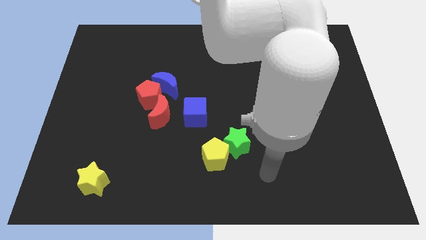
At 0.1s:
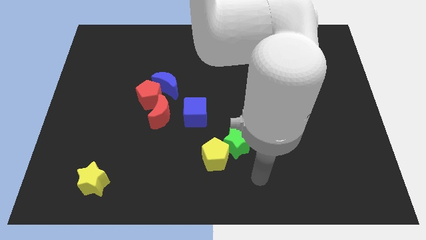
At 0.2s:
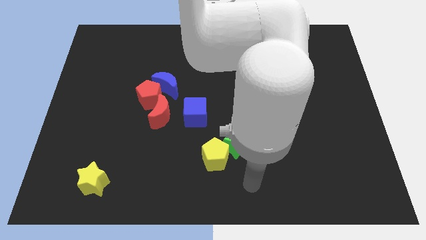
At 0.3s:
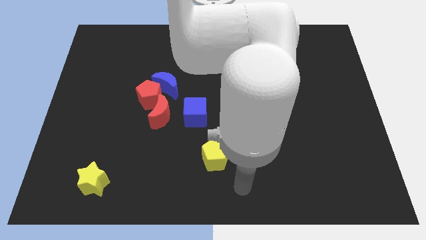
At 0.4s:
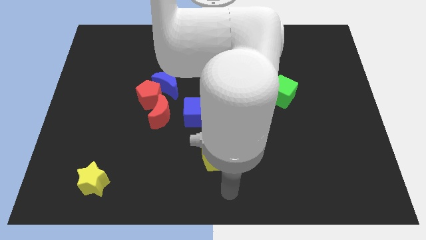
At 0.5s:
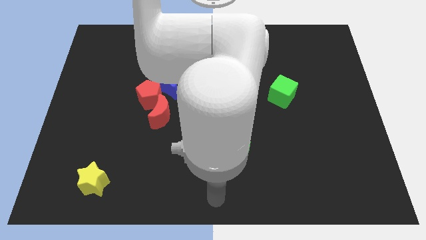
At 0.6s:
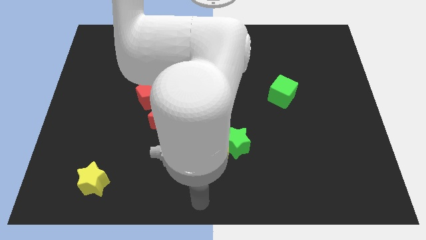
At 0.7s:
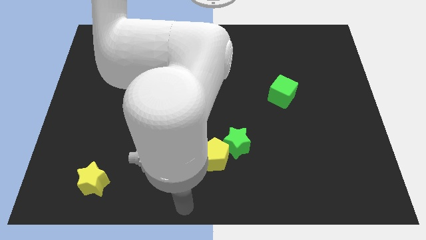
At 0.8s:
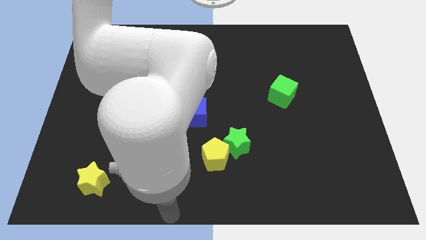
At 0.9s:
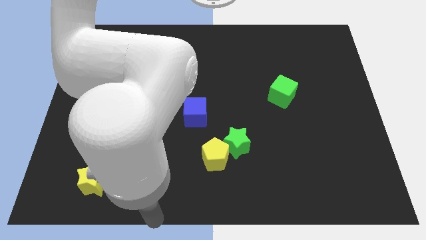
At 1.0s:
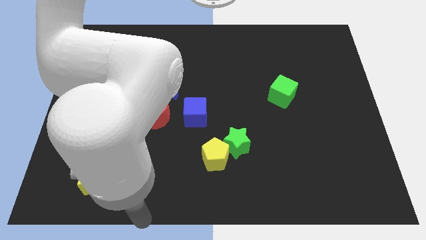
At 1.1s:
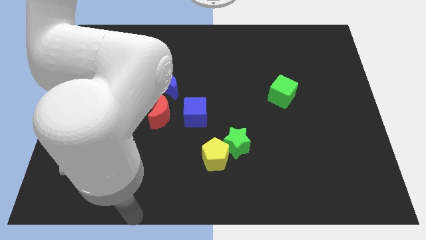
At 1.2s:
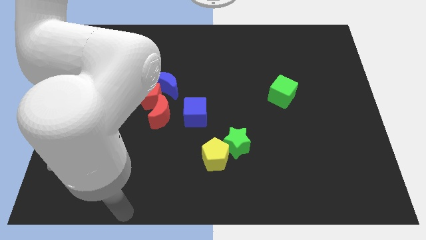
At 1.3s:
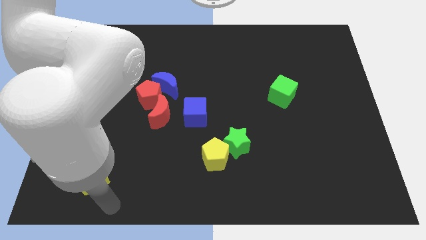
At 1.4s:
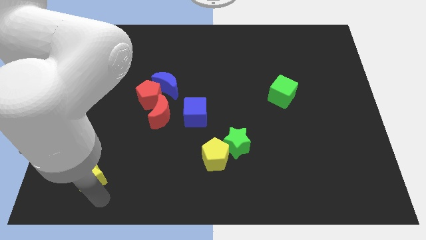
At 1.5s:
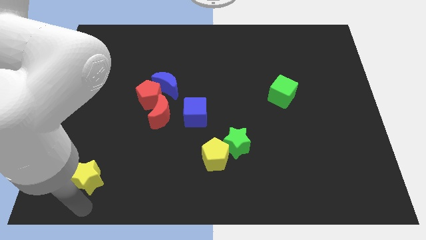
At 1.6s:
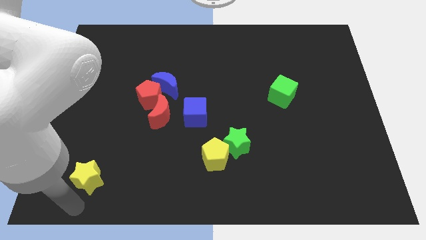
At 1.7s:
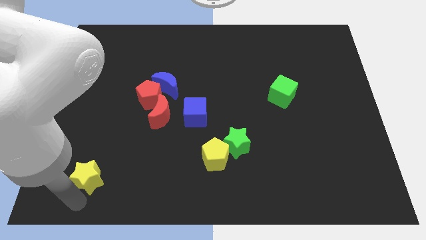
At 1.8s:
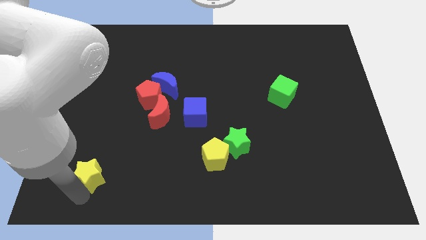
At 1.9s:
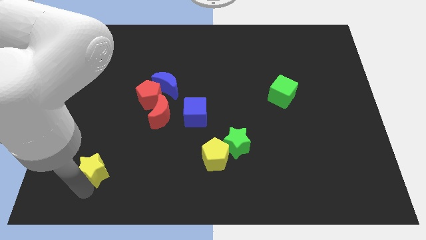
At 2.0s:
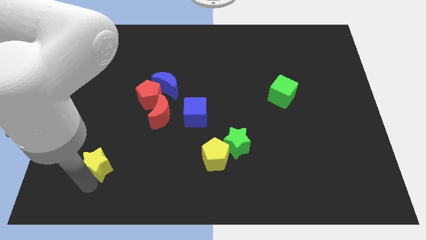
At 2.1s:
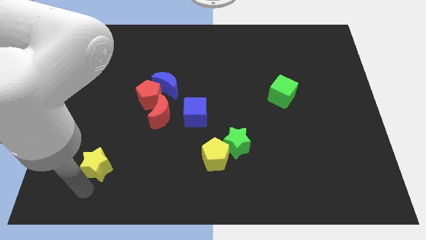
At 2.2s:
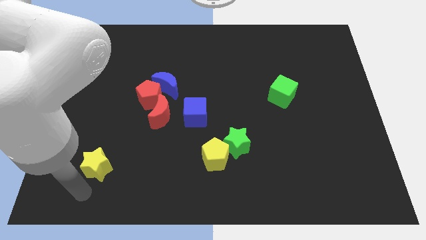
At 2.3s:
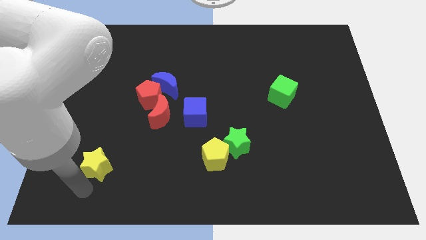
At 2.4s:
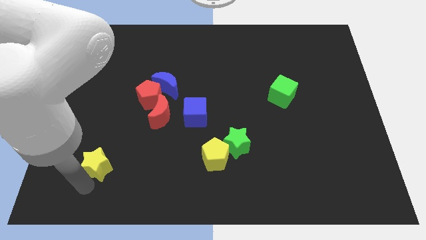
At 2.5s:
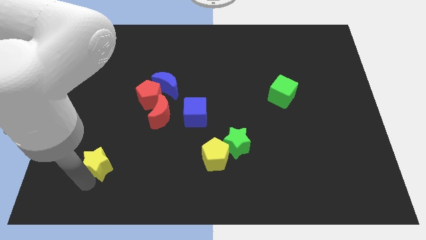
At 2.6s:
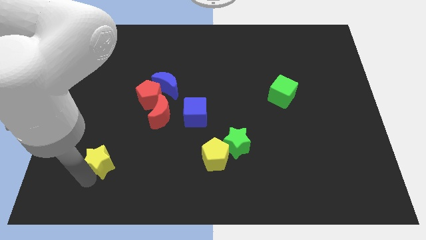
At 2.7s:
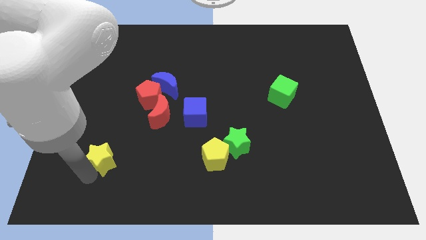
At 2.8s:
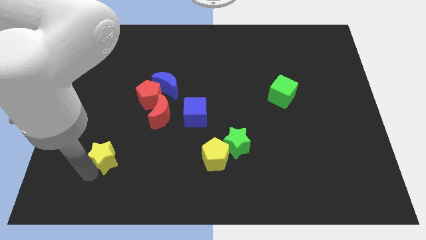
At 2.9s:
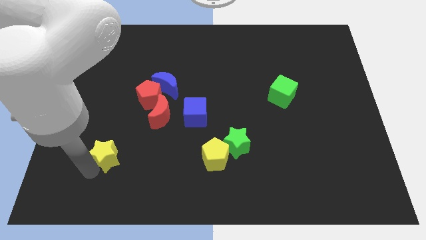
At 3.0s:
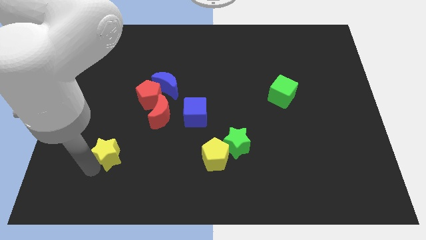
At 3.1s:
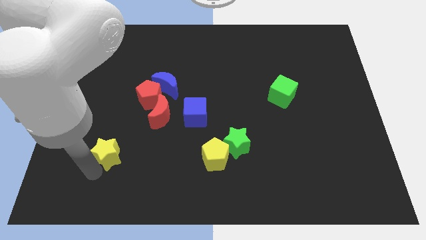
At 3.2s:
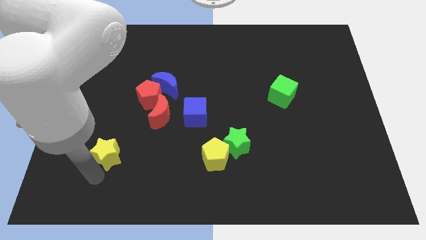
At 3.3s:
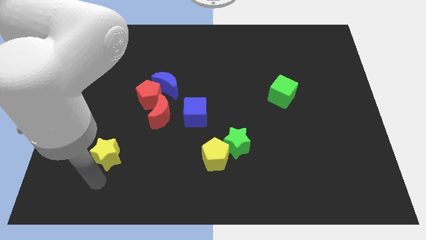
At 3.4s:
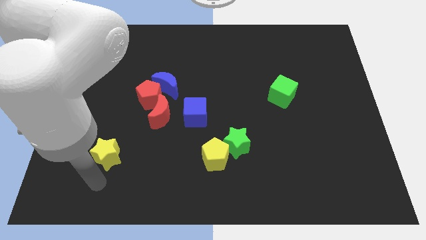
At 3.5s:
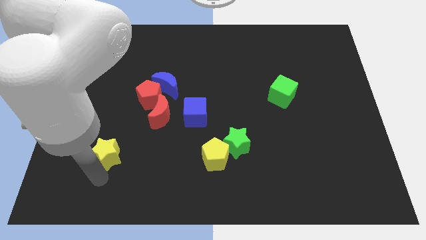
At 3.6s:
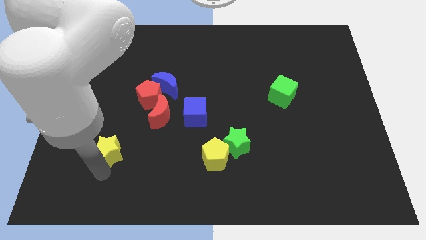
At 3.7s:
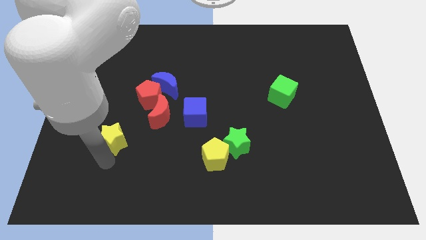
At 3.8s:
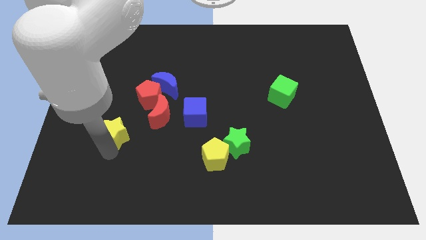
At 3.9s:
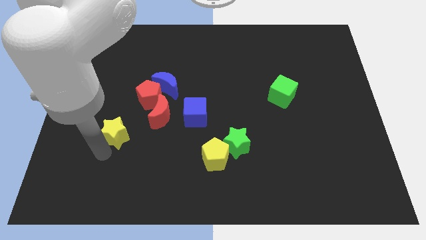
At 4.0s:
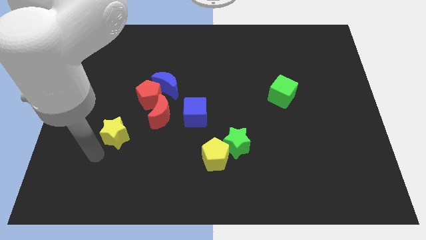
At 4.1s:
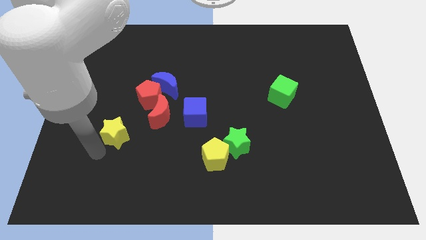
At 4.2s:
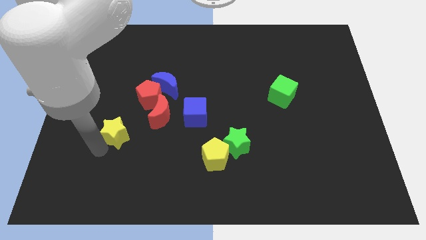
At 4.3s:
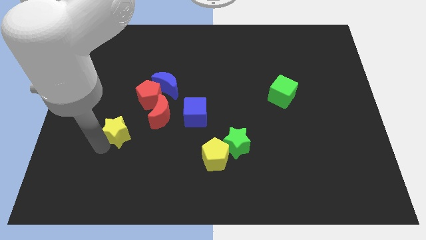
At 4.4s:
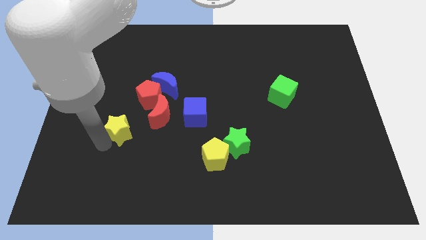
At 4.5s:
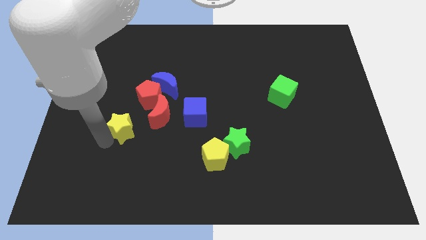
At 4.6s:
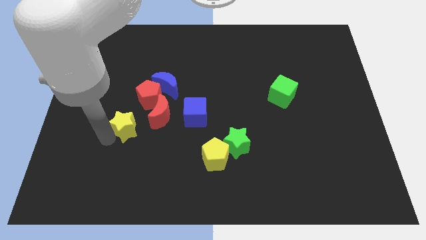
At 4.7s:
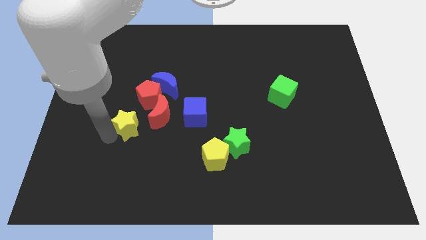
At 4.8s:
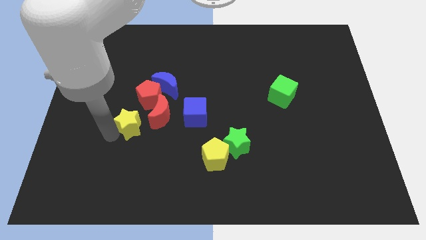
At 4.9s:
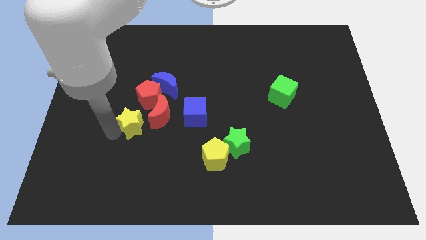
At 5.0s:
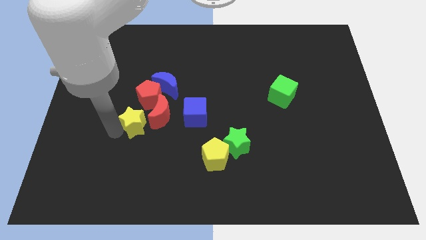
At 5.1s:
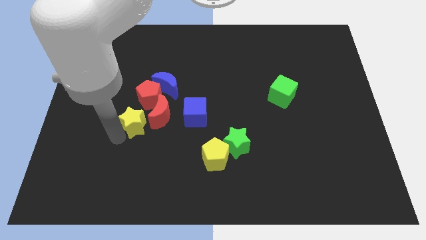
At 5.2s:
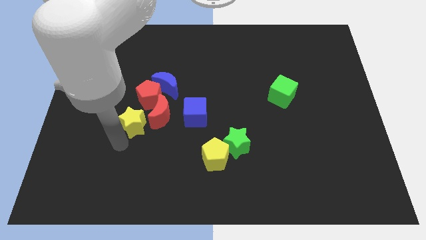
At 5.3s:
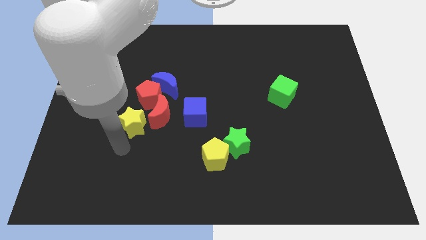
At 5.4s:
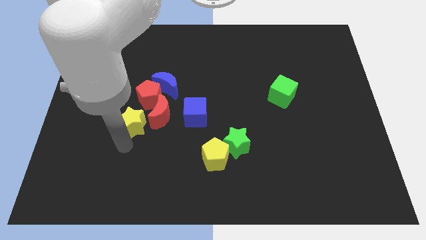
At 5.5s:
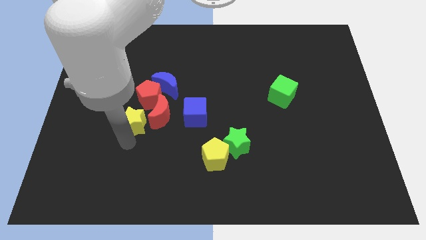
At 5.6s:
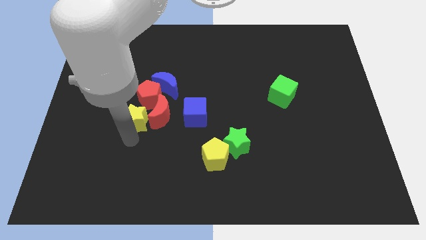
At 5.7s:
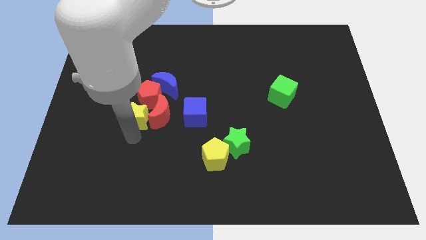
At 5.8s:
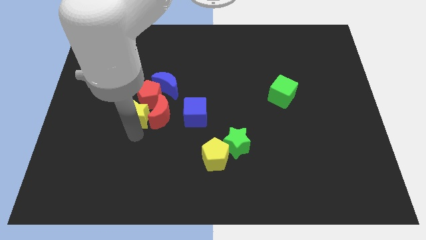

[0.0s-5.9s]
put the yellow star close to the red pentagon

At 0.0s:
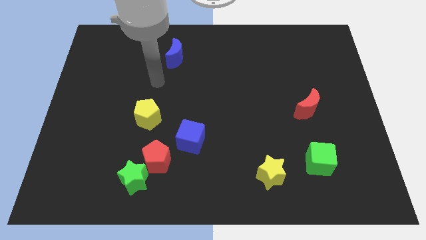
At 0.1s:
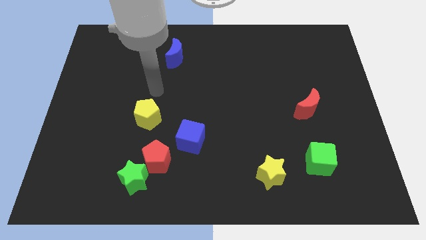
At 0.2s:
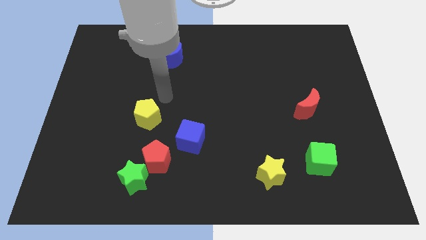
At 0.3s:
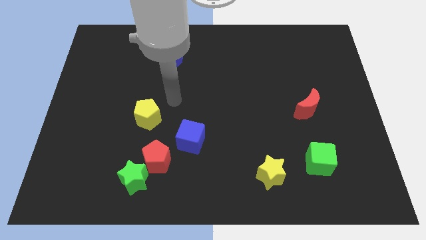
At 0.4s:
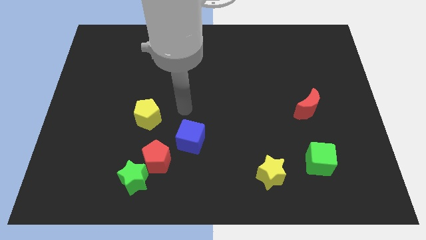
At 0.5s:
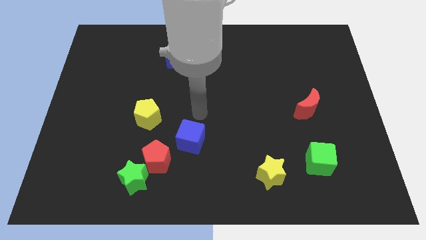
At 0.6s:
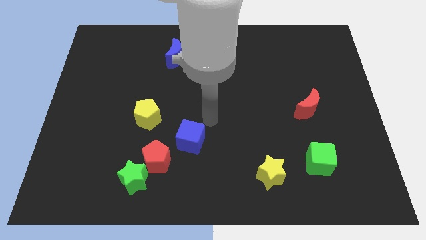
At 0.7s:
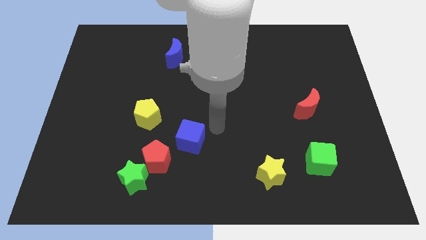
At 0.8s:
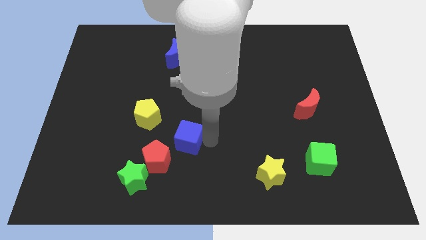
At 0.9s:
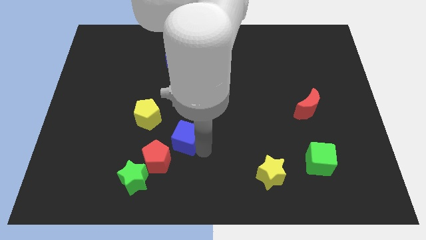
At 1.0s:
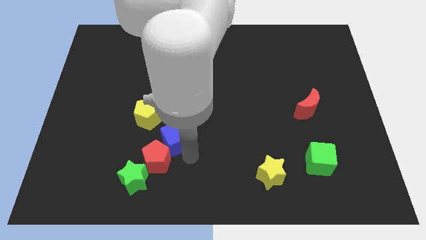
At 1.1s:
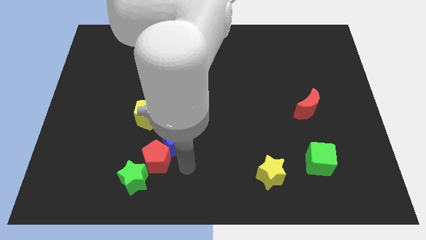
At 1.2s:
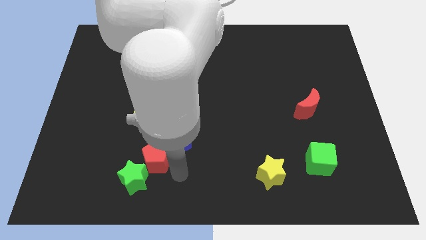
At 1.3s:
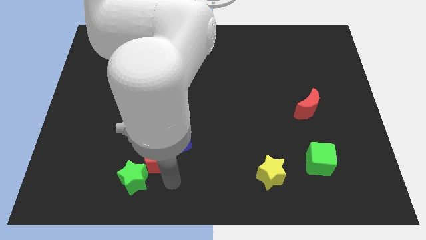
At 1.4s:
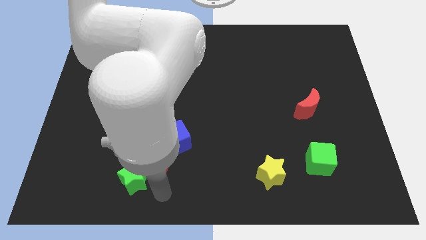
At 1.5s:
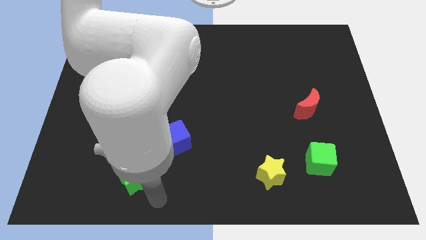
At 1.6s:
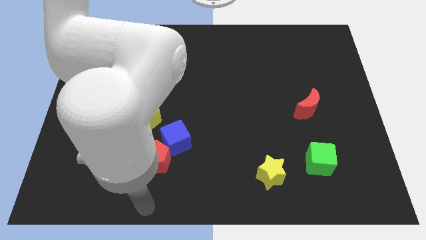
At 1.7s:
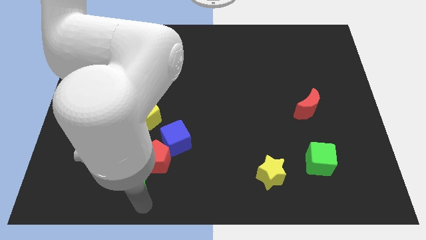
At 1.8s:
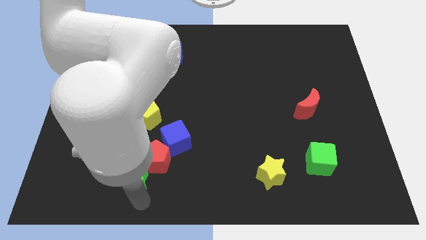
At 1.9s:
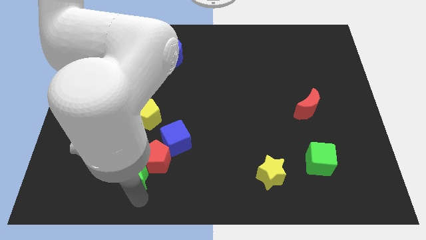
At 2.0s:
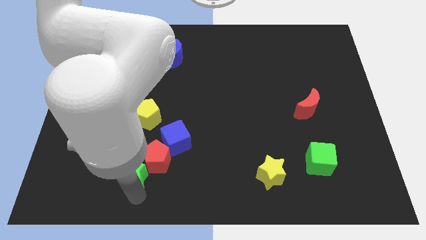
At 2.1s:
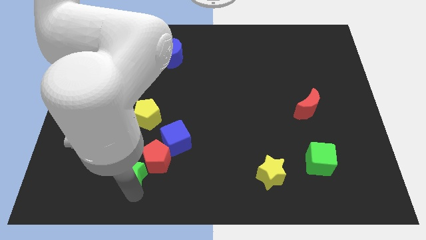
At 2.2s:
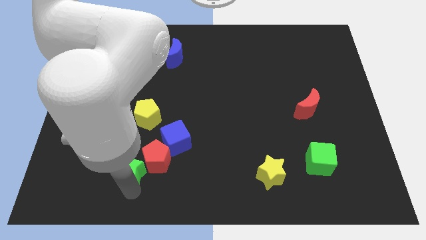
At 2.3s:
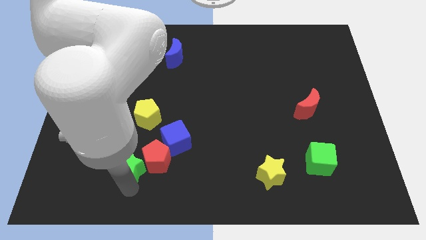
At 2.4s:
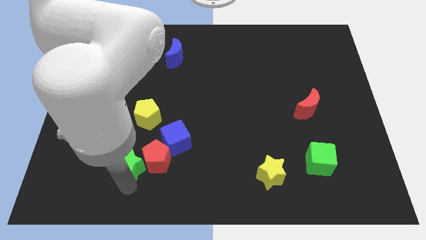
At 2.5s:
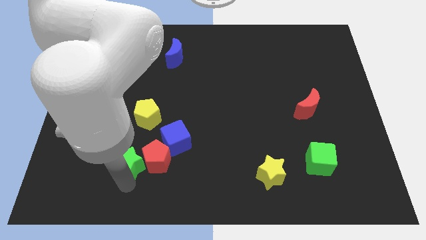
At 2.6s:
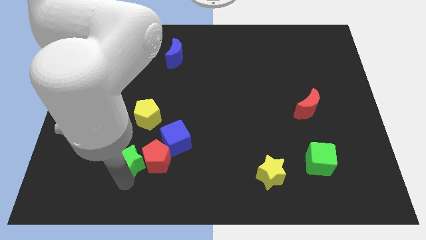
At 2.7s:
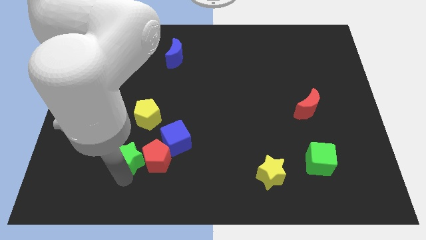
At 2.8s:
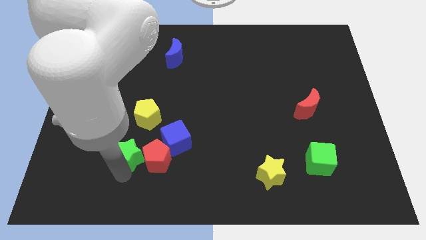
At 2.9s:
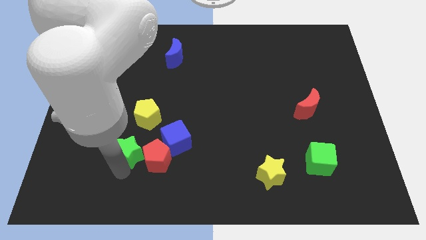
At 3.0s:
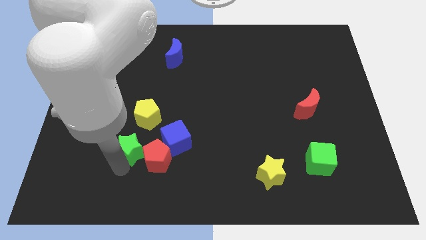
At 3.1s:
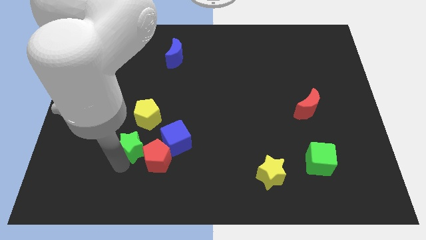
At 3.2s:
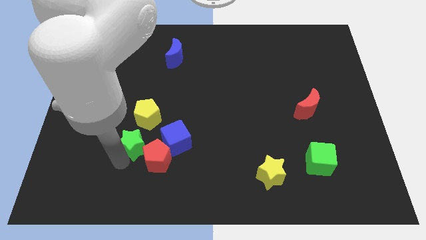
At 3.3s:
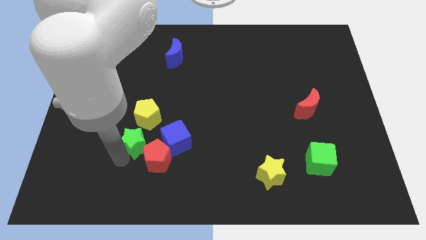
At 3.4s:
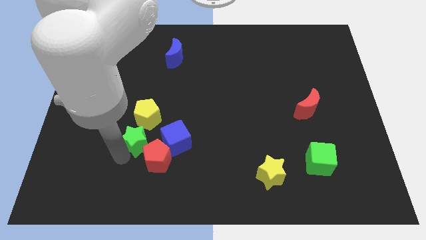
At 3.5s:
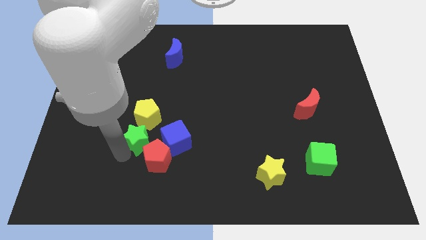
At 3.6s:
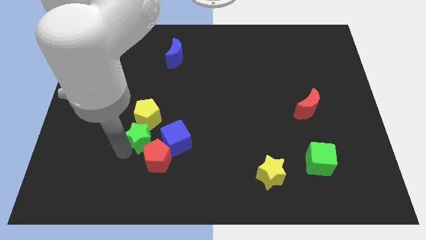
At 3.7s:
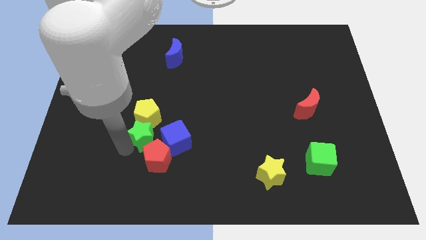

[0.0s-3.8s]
push the green star to the yellow pentagon
